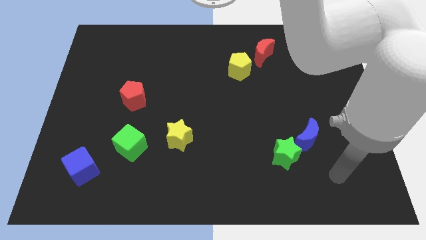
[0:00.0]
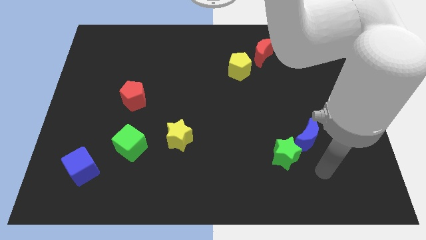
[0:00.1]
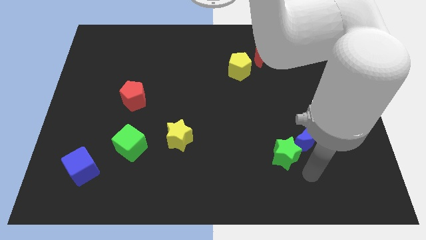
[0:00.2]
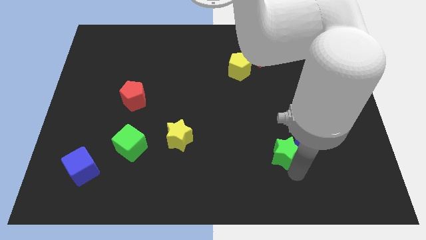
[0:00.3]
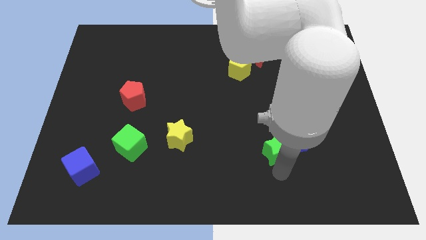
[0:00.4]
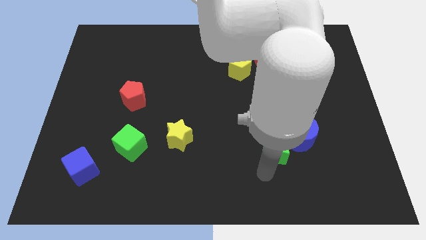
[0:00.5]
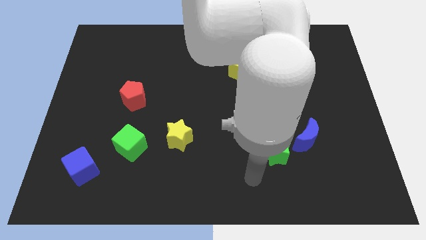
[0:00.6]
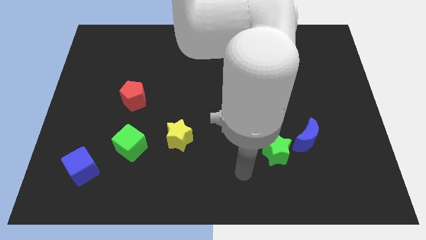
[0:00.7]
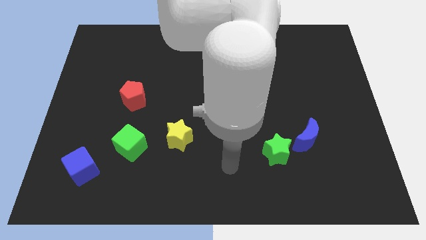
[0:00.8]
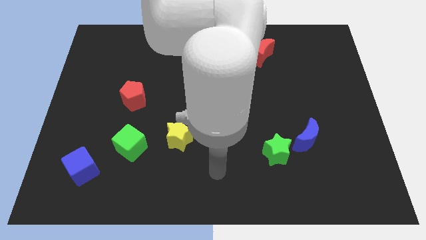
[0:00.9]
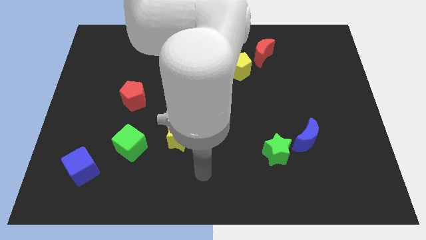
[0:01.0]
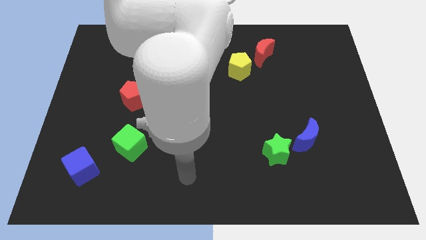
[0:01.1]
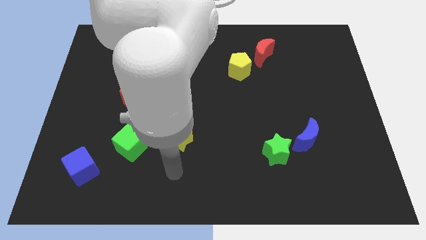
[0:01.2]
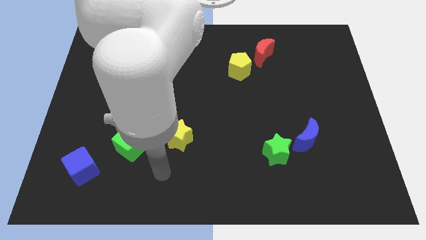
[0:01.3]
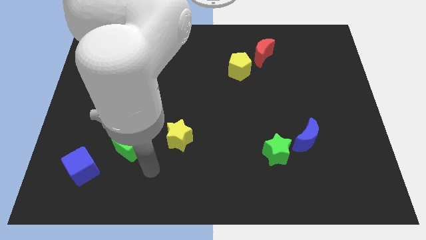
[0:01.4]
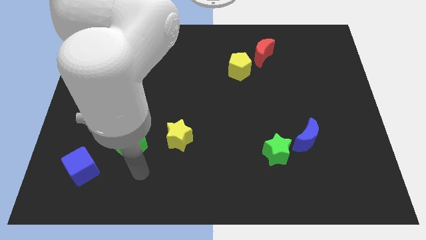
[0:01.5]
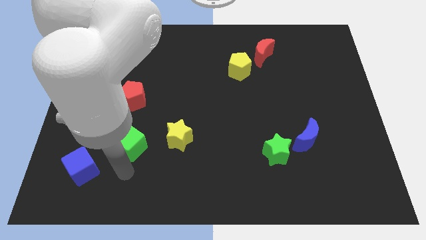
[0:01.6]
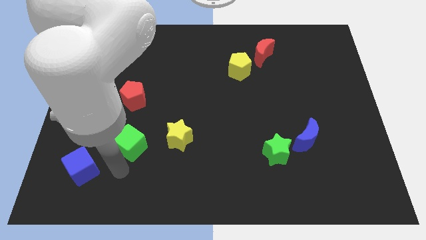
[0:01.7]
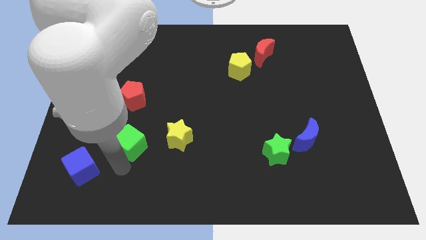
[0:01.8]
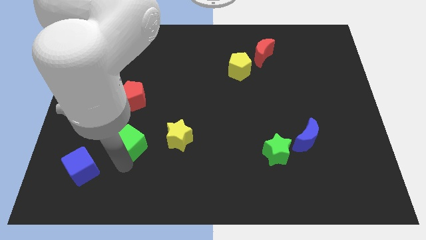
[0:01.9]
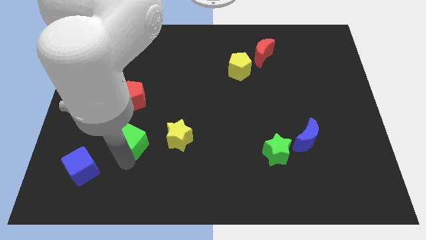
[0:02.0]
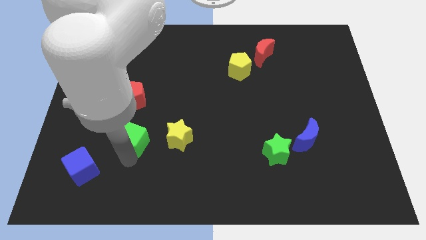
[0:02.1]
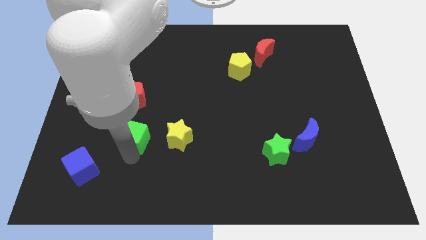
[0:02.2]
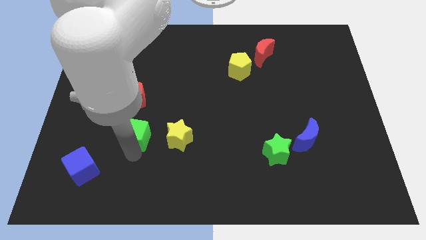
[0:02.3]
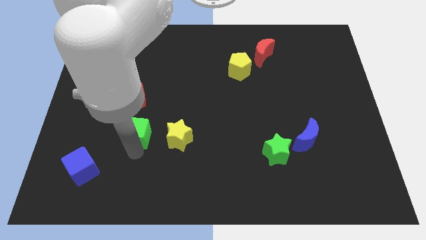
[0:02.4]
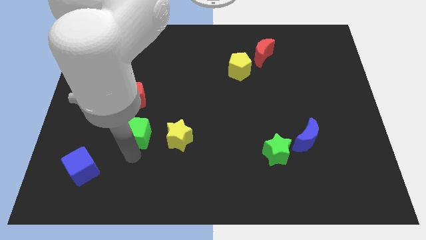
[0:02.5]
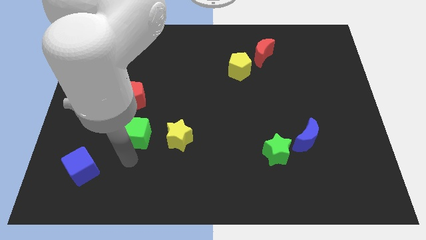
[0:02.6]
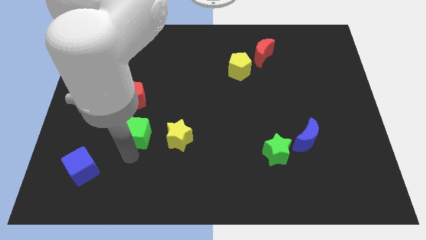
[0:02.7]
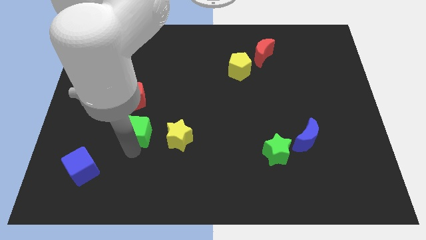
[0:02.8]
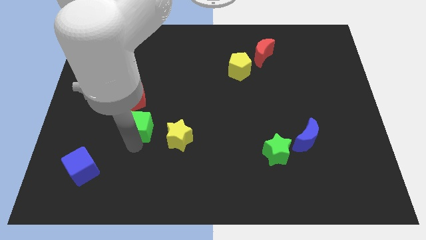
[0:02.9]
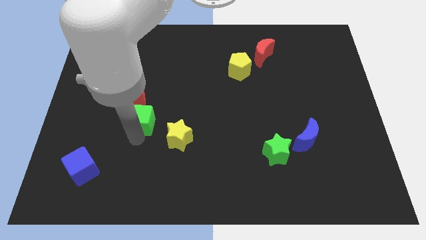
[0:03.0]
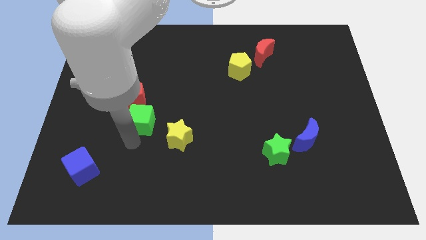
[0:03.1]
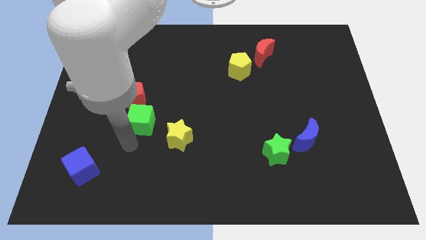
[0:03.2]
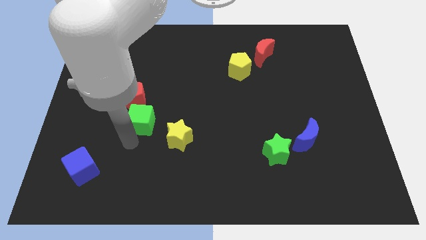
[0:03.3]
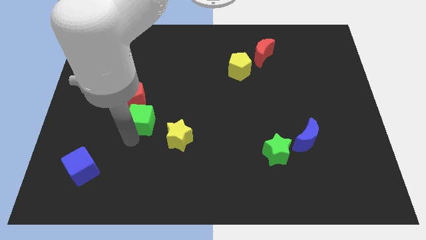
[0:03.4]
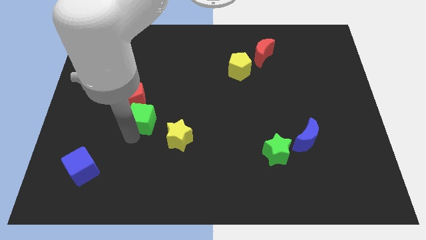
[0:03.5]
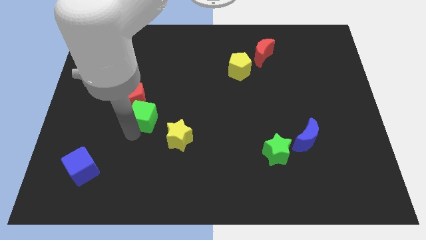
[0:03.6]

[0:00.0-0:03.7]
slightly slide the green cube up

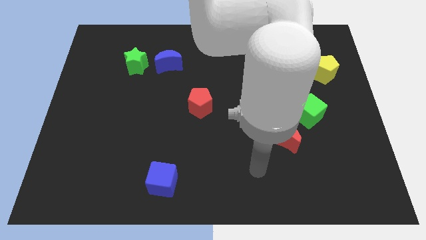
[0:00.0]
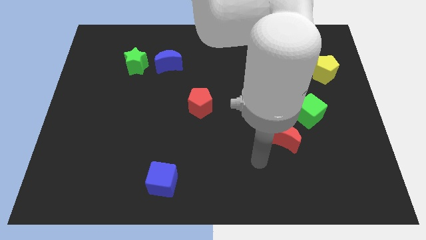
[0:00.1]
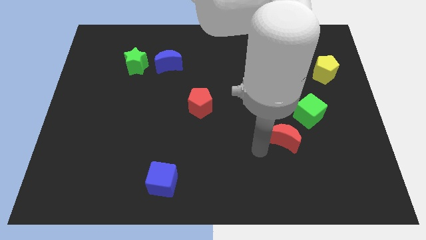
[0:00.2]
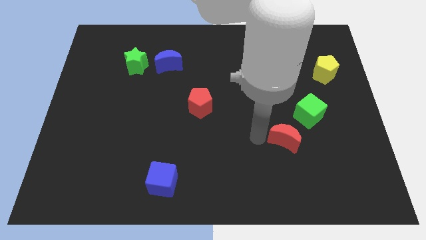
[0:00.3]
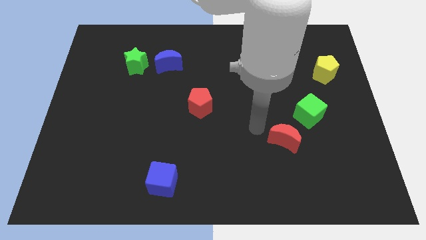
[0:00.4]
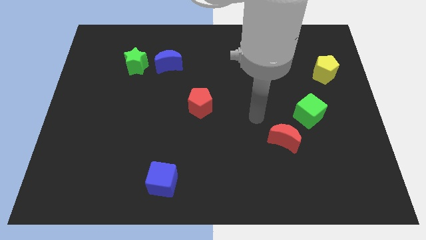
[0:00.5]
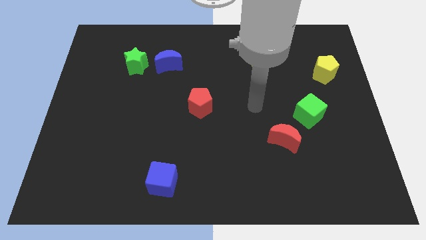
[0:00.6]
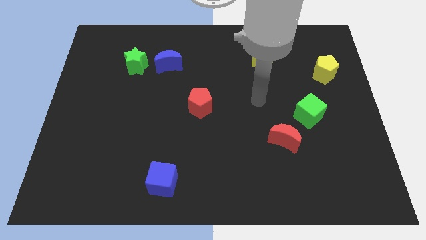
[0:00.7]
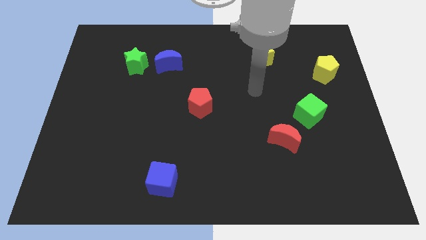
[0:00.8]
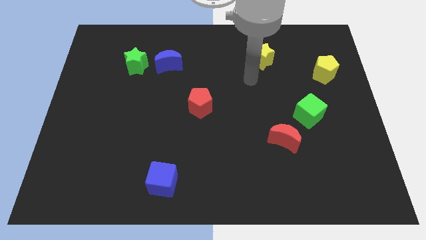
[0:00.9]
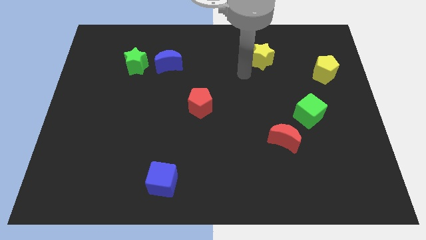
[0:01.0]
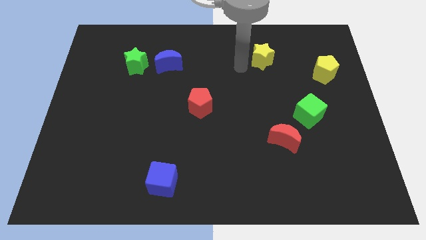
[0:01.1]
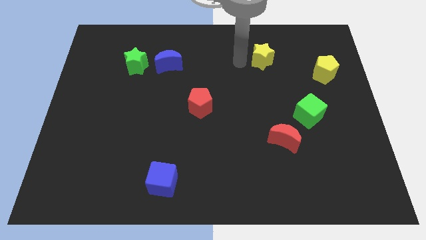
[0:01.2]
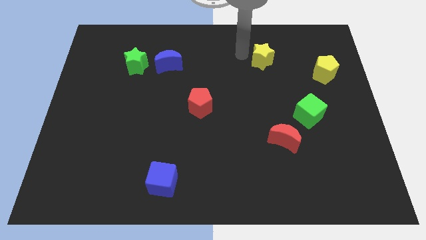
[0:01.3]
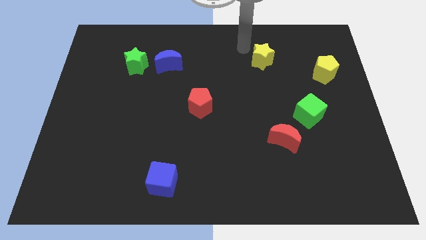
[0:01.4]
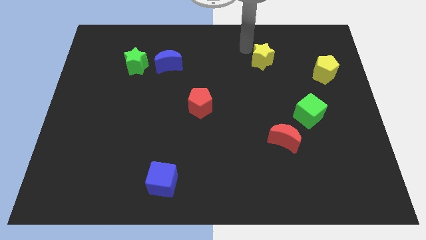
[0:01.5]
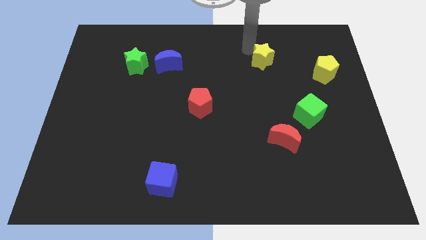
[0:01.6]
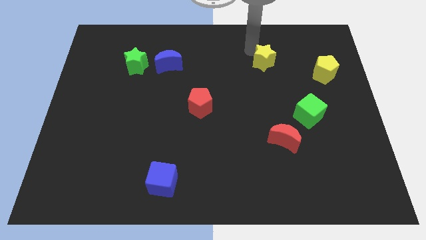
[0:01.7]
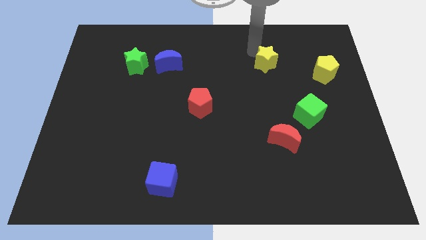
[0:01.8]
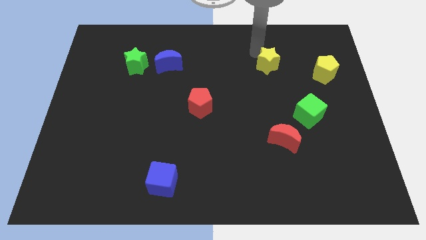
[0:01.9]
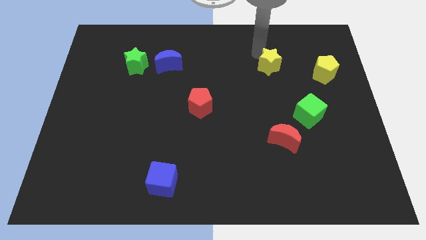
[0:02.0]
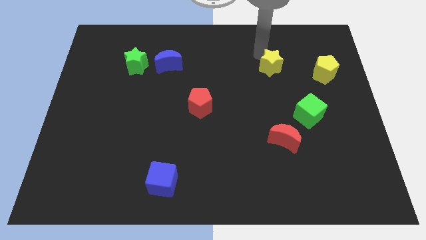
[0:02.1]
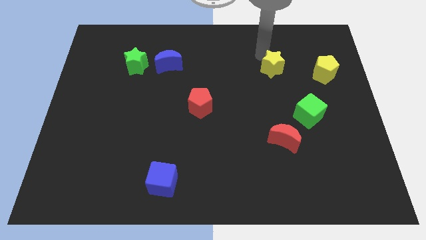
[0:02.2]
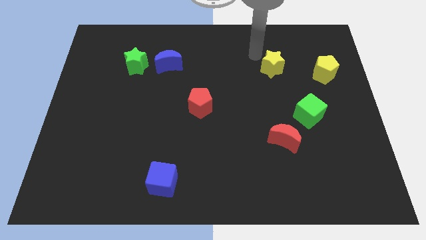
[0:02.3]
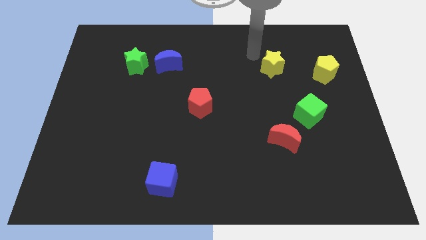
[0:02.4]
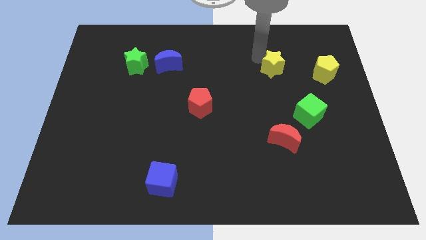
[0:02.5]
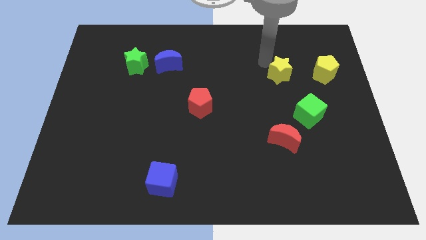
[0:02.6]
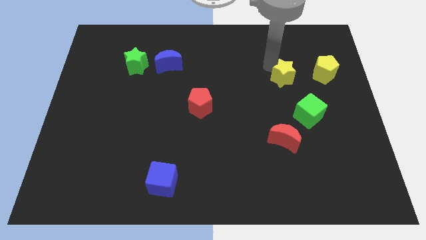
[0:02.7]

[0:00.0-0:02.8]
slightly slide the yellow star downwards and then right

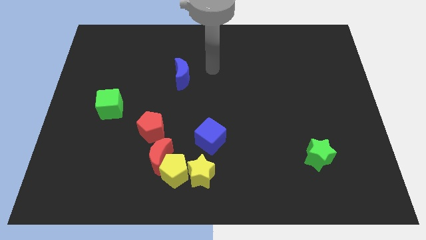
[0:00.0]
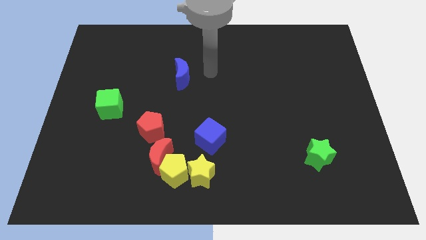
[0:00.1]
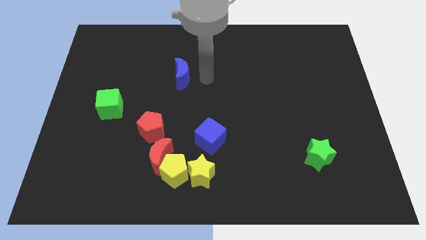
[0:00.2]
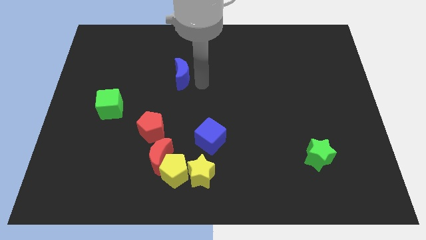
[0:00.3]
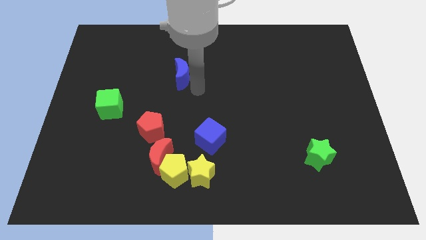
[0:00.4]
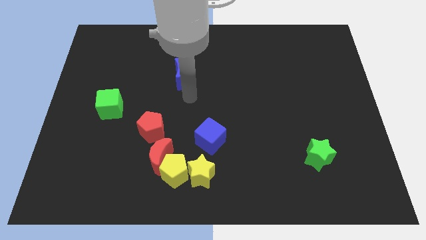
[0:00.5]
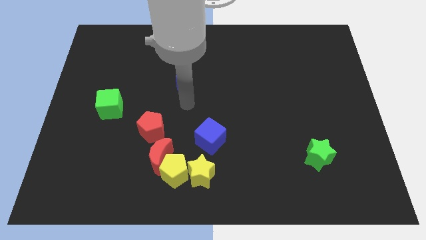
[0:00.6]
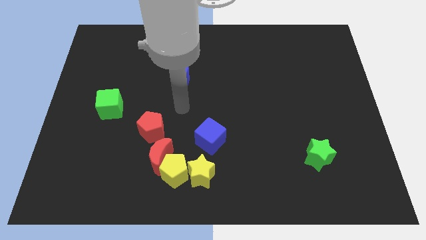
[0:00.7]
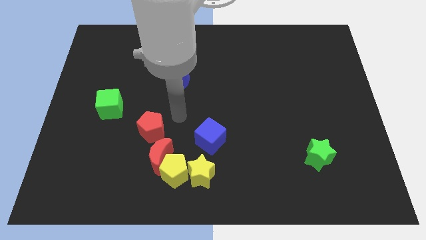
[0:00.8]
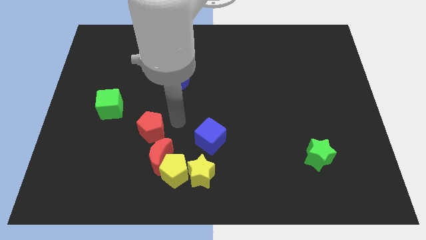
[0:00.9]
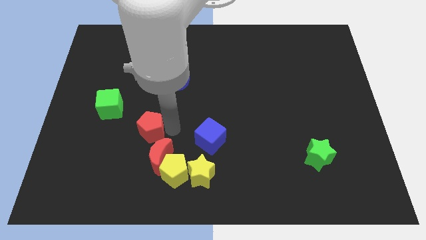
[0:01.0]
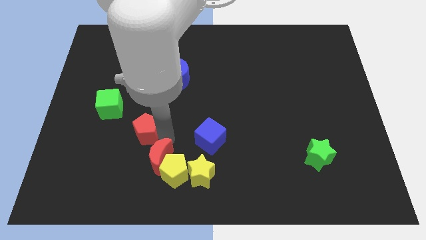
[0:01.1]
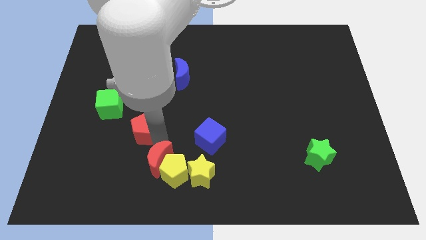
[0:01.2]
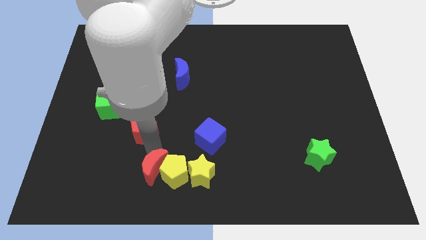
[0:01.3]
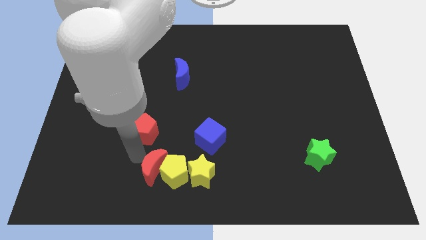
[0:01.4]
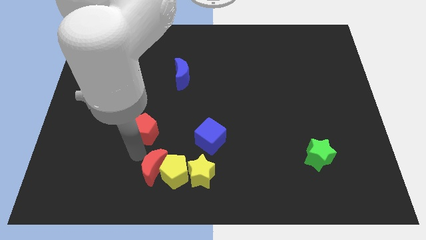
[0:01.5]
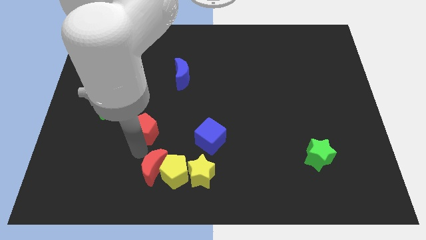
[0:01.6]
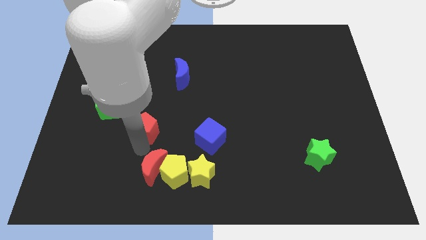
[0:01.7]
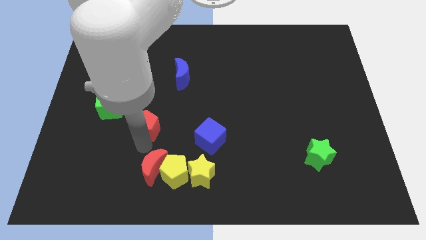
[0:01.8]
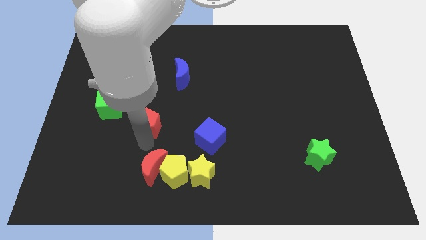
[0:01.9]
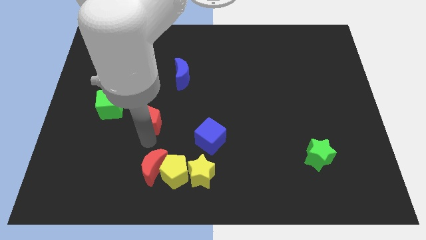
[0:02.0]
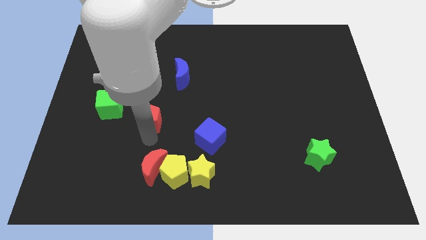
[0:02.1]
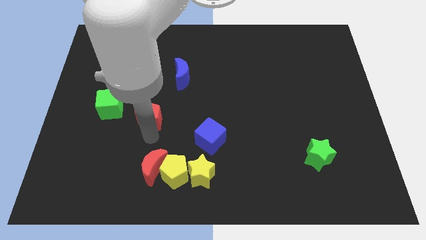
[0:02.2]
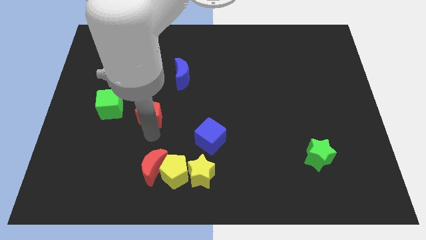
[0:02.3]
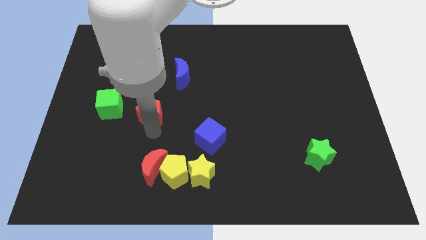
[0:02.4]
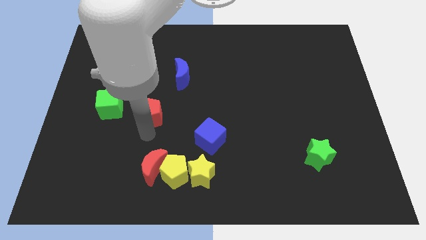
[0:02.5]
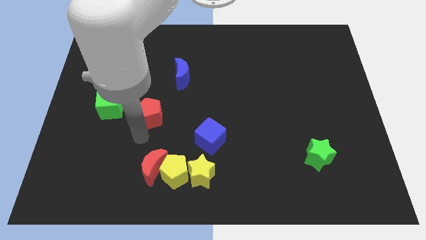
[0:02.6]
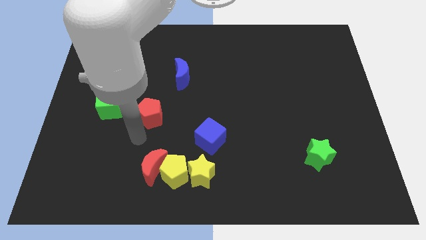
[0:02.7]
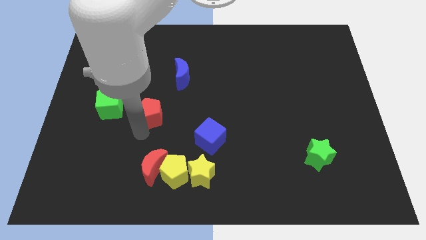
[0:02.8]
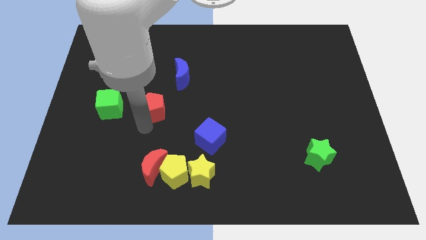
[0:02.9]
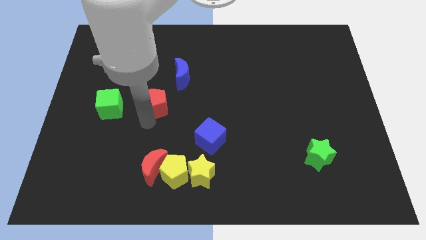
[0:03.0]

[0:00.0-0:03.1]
move the red pentagon up somewhat
